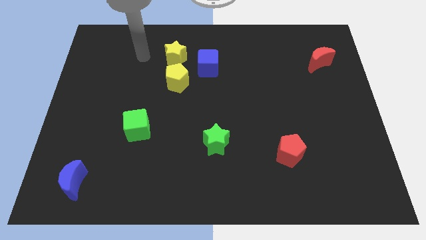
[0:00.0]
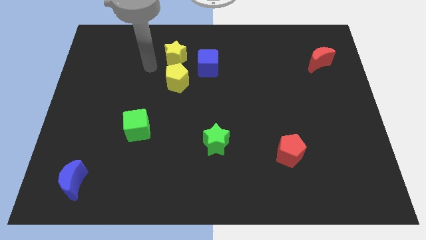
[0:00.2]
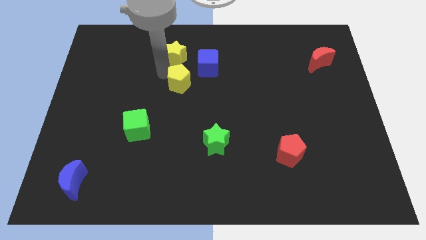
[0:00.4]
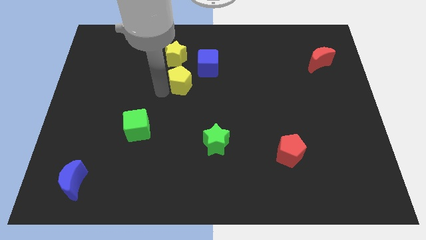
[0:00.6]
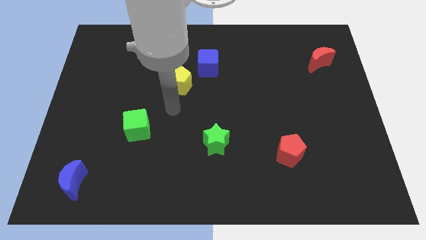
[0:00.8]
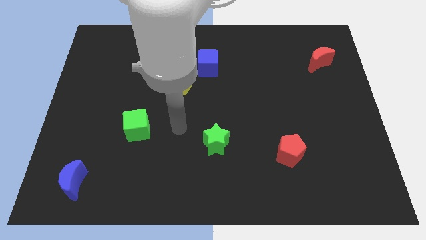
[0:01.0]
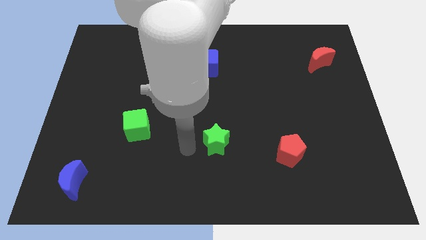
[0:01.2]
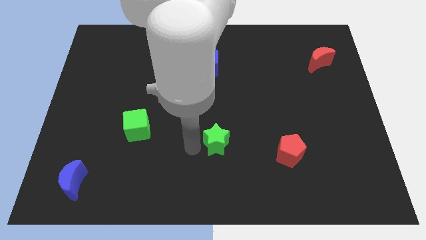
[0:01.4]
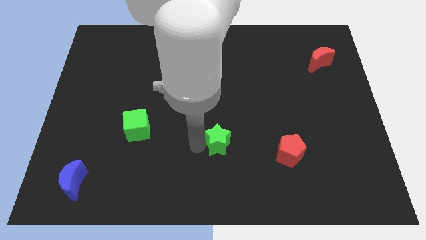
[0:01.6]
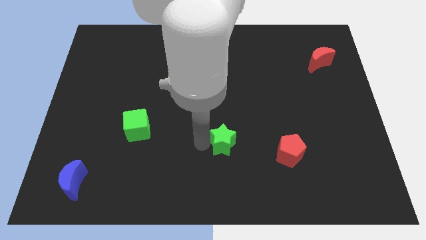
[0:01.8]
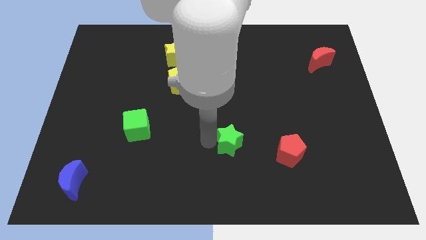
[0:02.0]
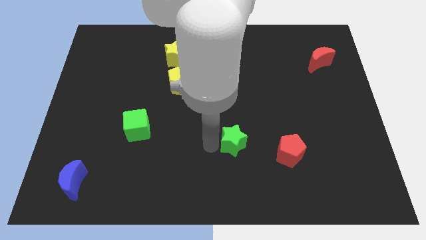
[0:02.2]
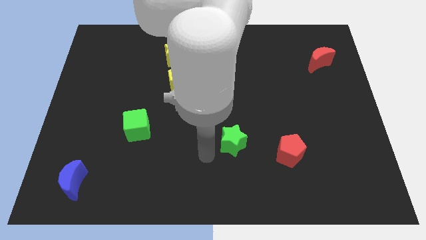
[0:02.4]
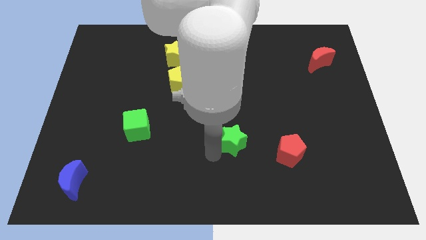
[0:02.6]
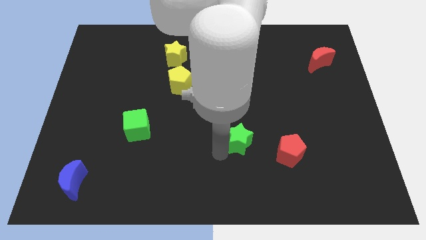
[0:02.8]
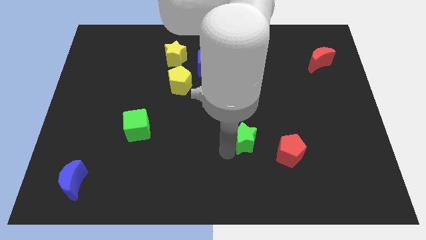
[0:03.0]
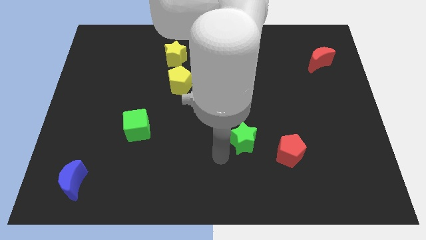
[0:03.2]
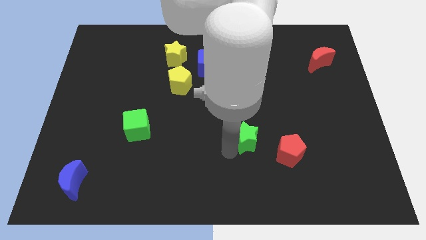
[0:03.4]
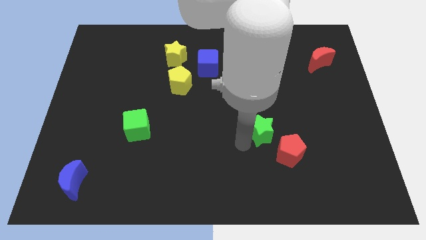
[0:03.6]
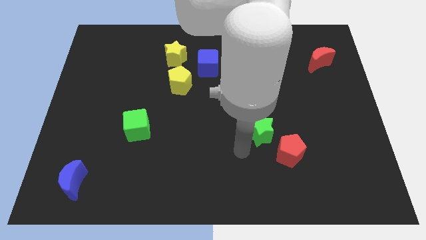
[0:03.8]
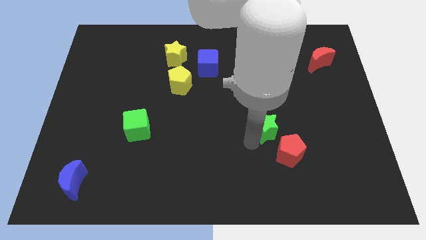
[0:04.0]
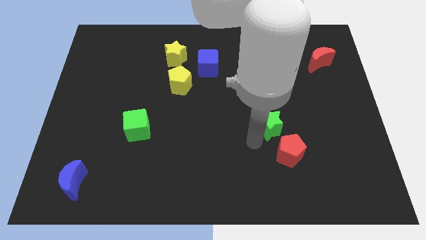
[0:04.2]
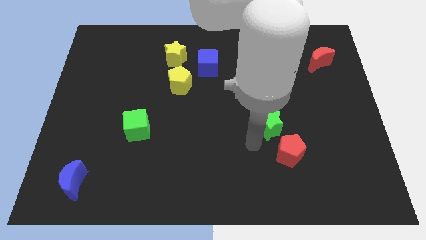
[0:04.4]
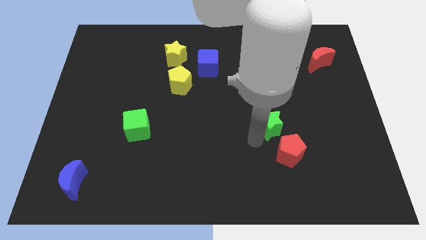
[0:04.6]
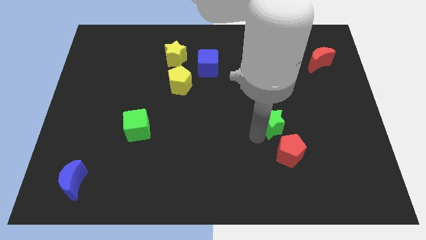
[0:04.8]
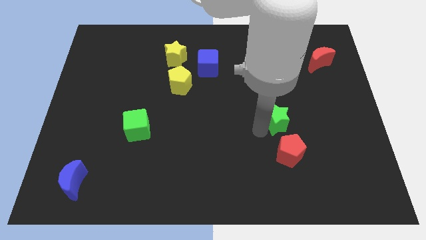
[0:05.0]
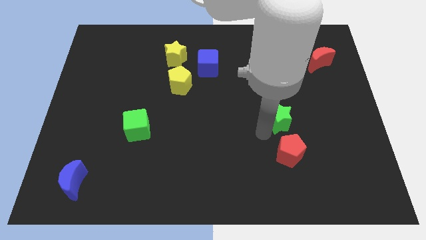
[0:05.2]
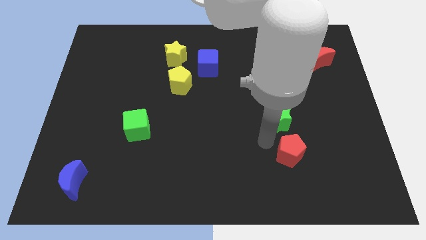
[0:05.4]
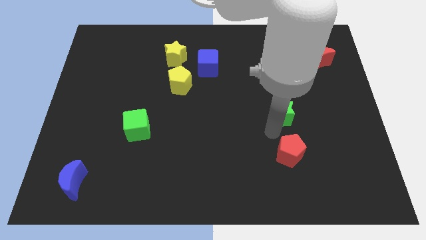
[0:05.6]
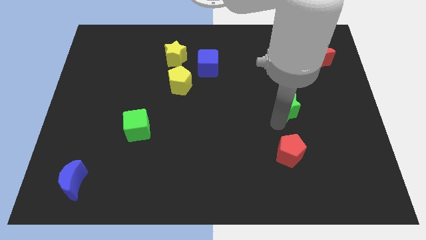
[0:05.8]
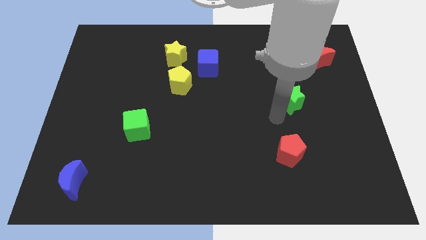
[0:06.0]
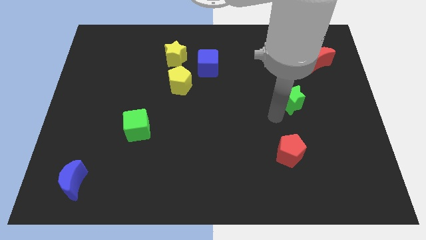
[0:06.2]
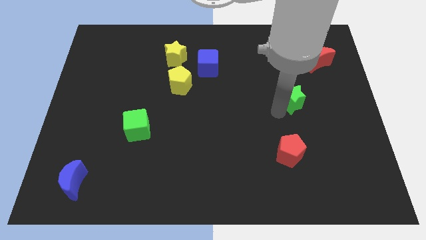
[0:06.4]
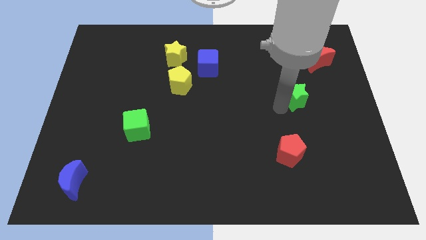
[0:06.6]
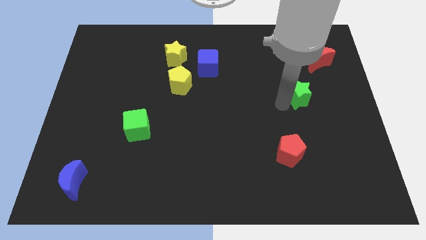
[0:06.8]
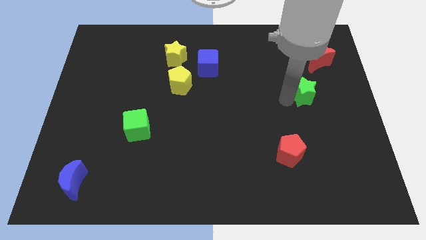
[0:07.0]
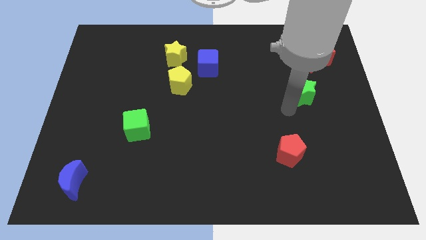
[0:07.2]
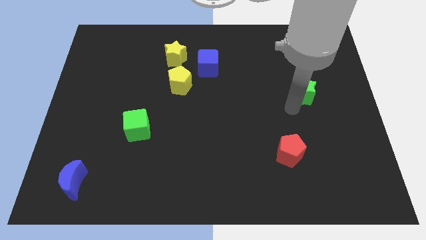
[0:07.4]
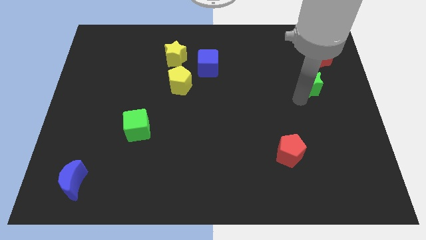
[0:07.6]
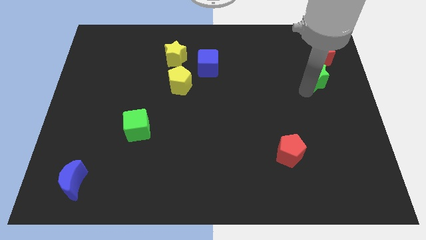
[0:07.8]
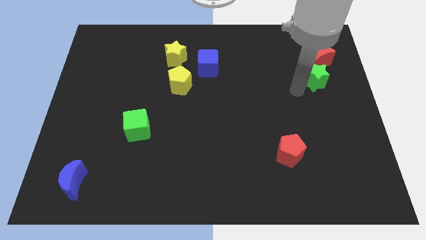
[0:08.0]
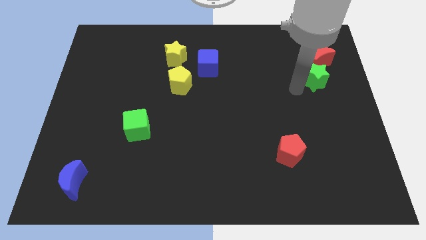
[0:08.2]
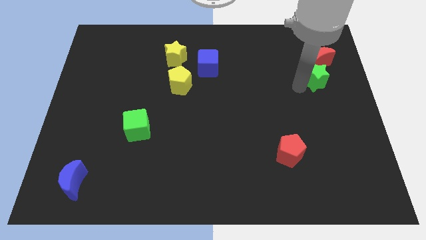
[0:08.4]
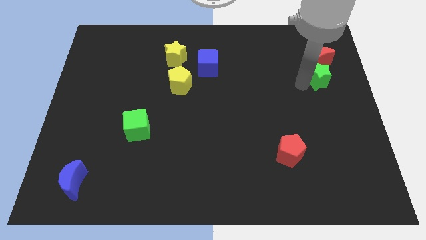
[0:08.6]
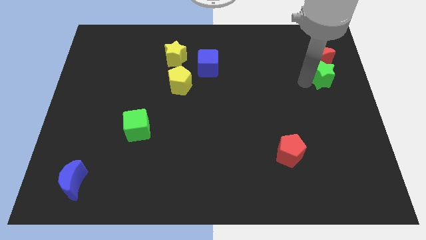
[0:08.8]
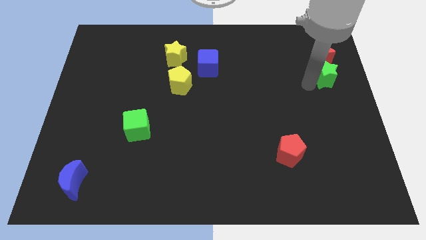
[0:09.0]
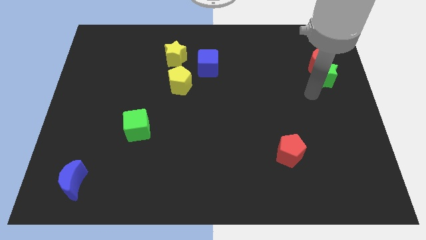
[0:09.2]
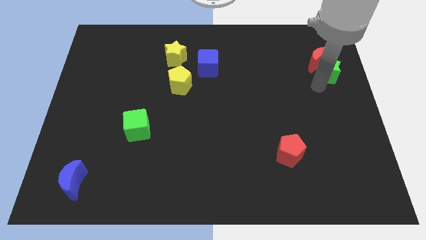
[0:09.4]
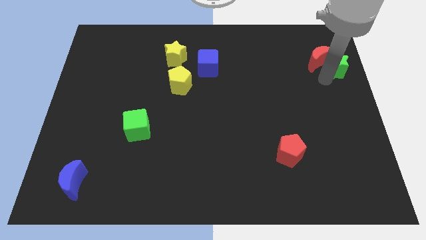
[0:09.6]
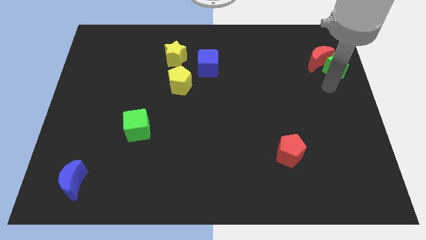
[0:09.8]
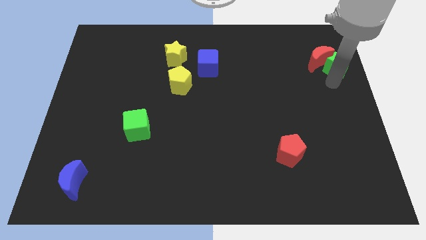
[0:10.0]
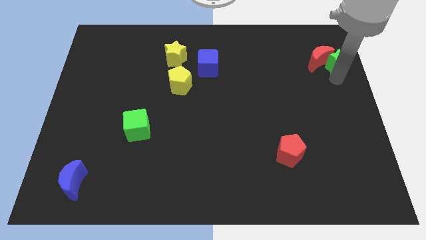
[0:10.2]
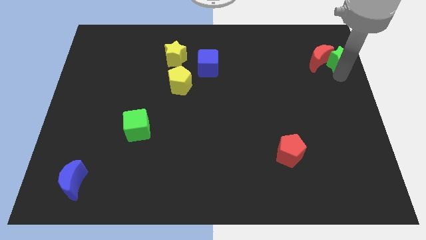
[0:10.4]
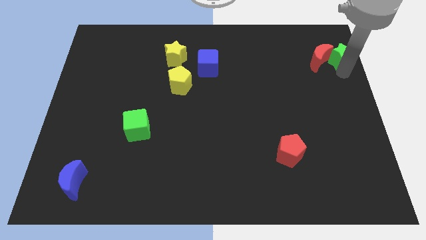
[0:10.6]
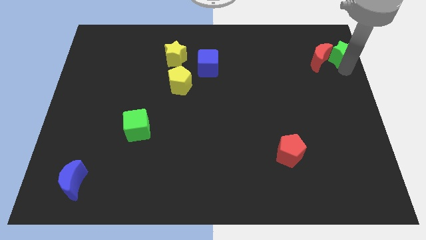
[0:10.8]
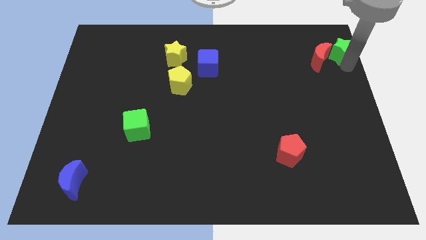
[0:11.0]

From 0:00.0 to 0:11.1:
put the green star to the upper right corner

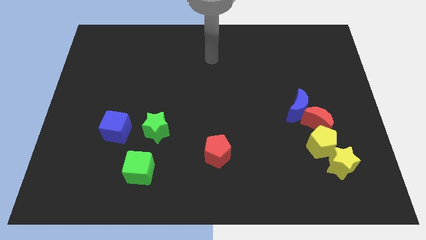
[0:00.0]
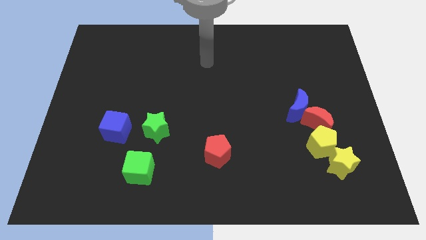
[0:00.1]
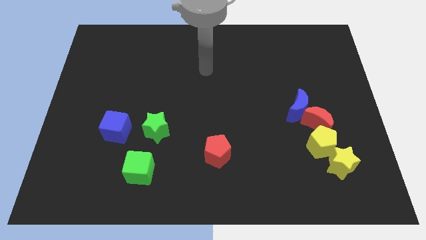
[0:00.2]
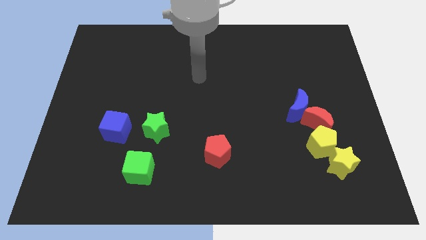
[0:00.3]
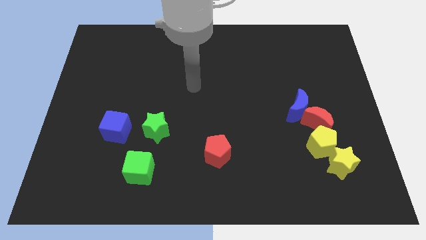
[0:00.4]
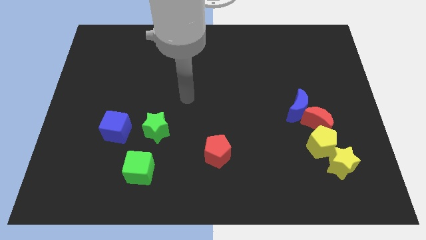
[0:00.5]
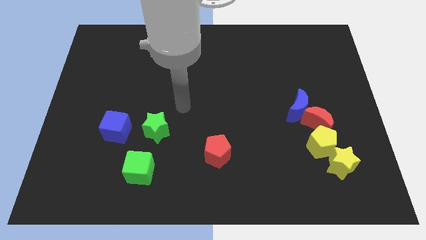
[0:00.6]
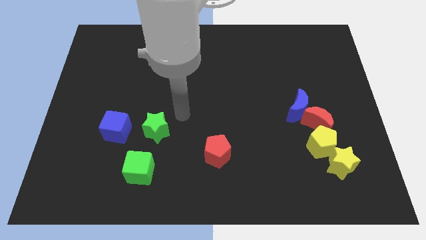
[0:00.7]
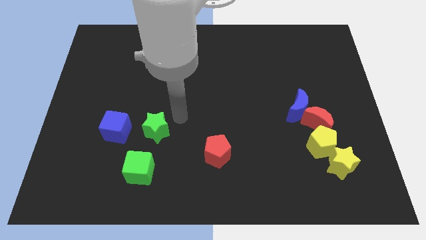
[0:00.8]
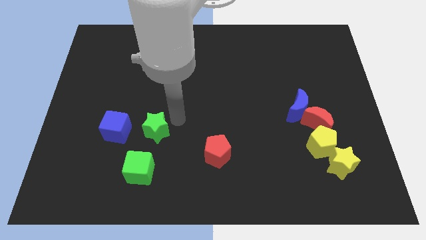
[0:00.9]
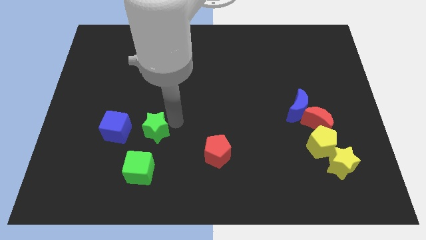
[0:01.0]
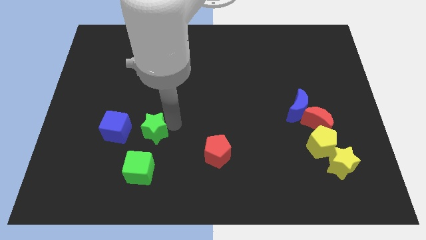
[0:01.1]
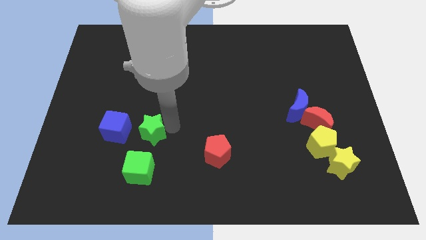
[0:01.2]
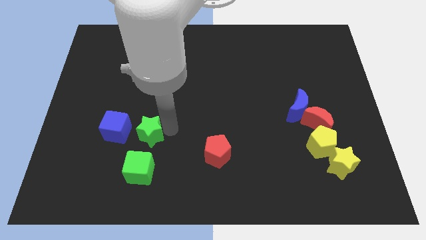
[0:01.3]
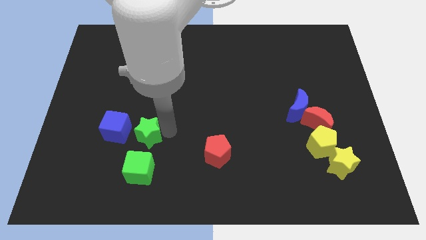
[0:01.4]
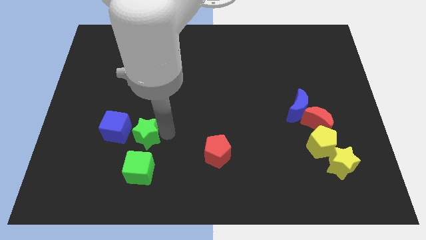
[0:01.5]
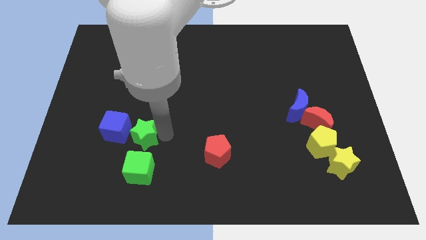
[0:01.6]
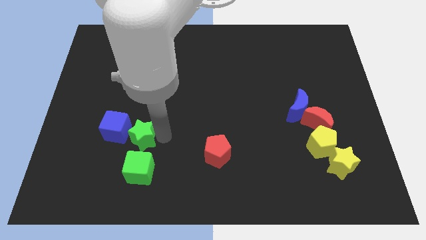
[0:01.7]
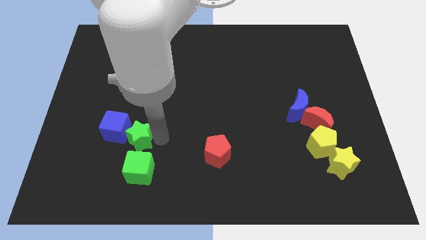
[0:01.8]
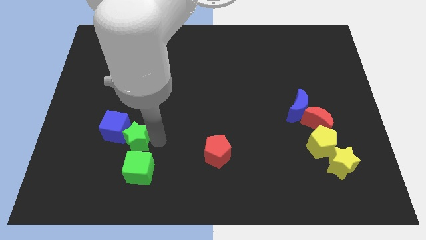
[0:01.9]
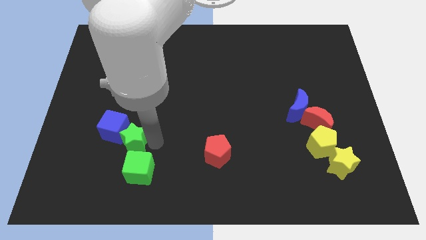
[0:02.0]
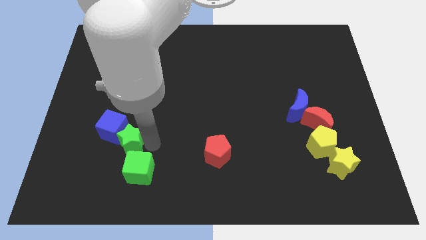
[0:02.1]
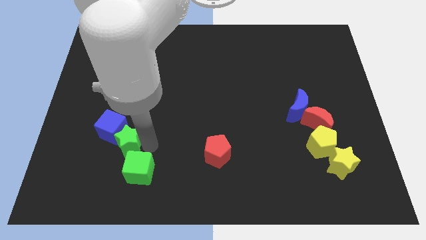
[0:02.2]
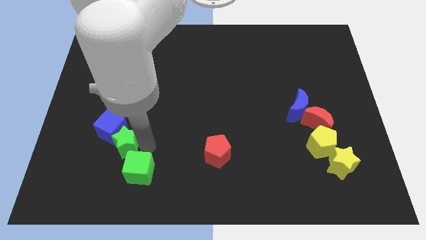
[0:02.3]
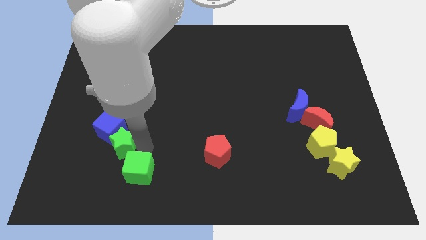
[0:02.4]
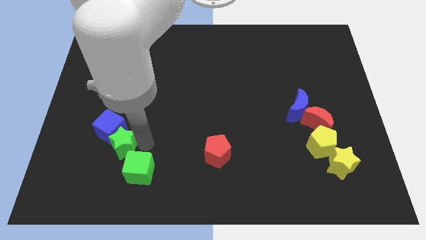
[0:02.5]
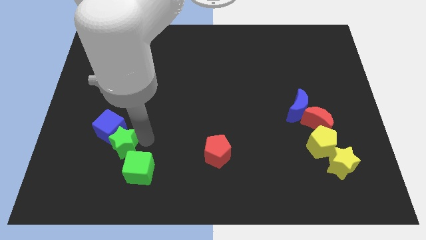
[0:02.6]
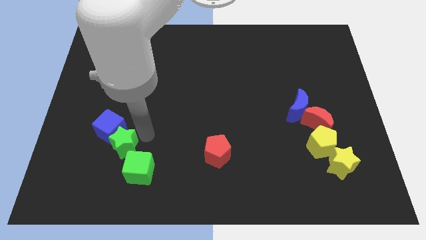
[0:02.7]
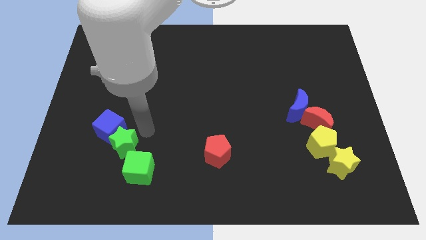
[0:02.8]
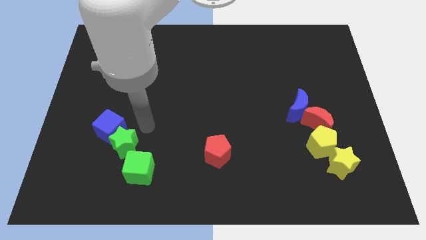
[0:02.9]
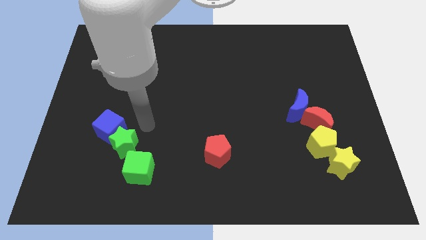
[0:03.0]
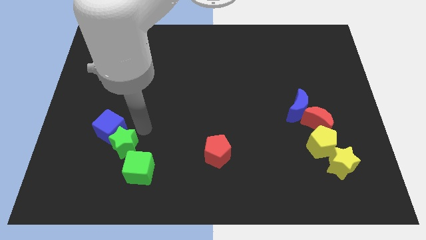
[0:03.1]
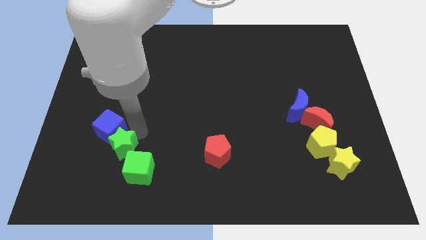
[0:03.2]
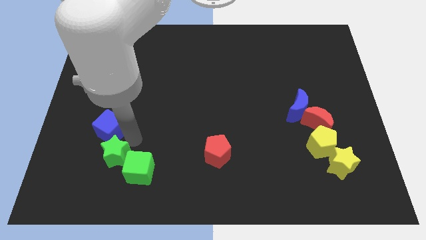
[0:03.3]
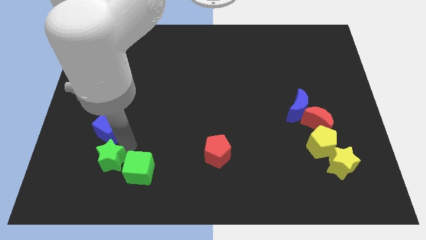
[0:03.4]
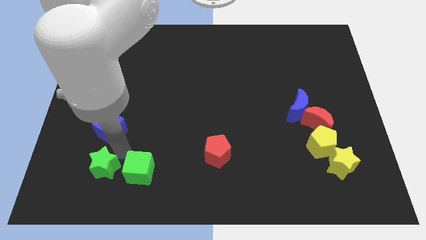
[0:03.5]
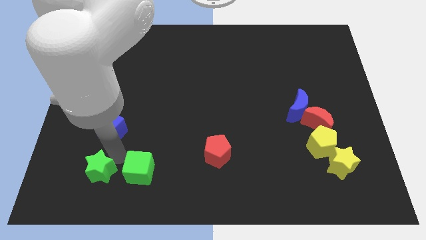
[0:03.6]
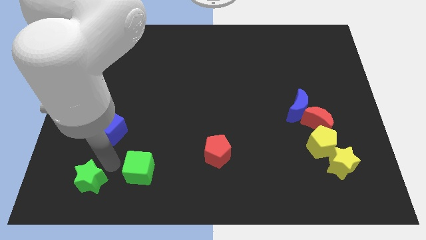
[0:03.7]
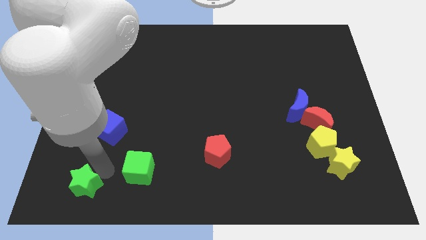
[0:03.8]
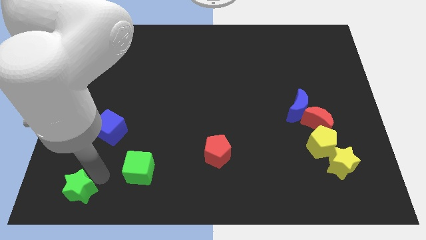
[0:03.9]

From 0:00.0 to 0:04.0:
slide the green star to the bottom left
